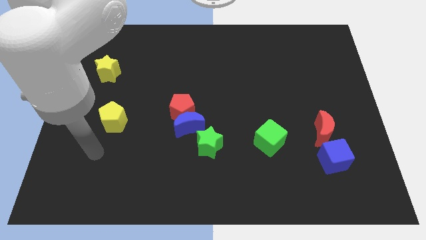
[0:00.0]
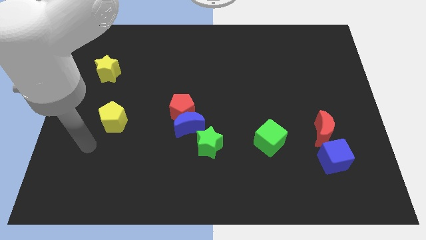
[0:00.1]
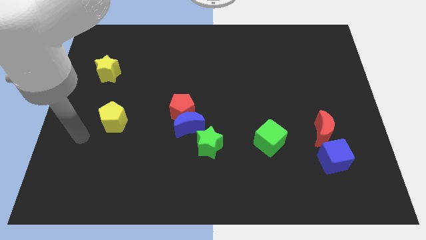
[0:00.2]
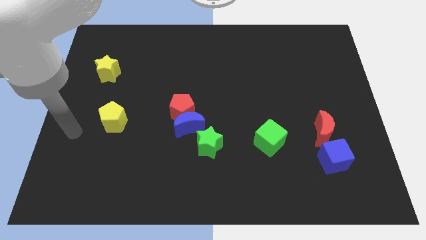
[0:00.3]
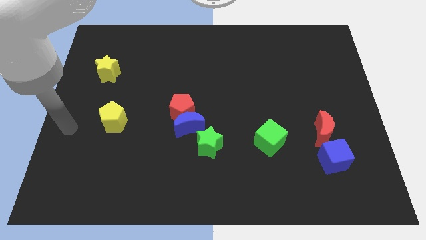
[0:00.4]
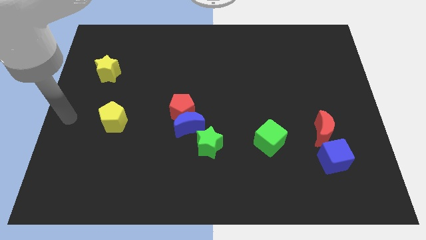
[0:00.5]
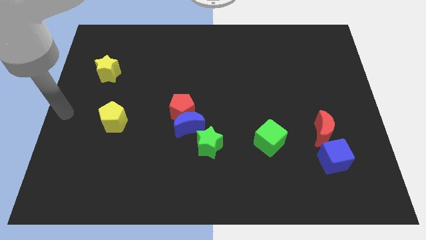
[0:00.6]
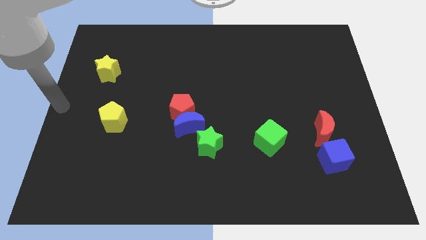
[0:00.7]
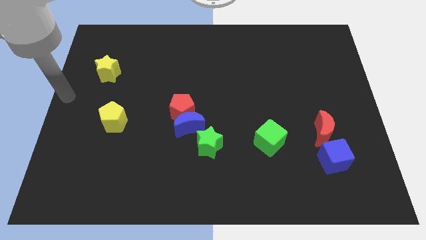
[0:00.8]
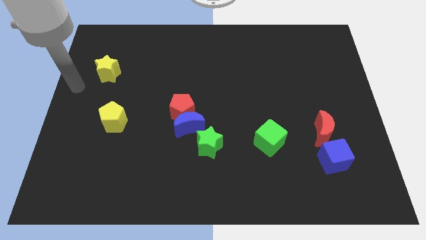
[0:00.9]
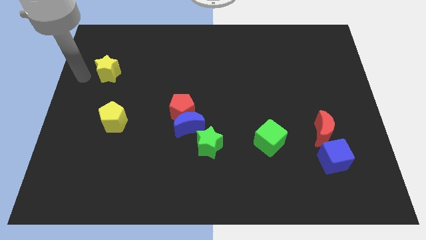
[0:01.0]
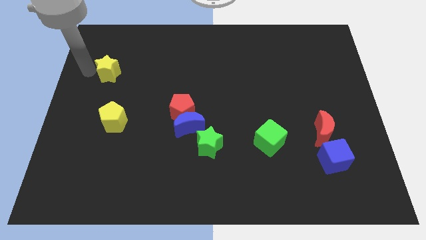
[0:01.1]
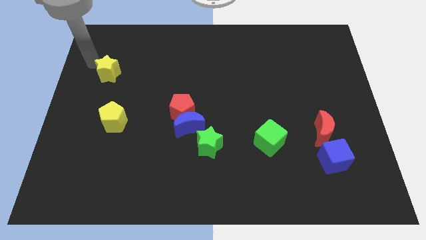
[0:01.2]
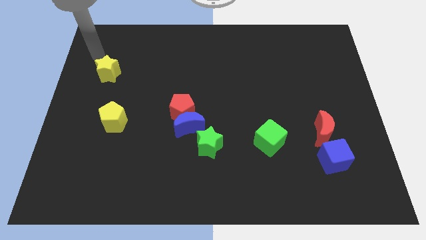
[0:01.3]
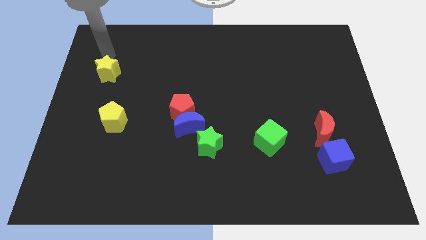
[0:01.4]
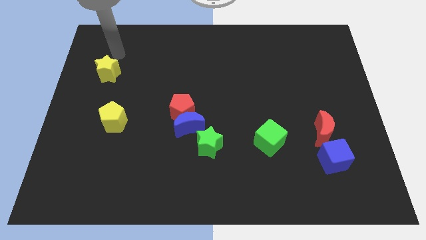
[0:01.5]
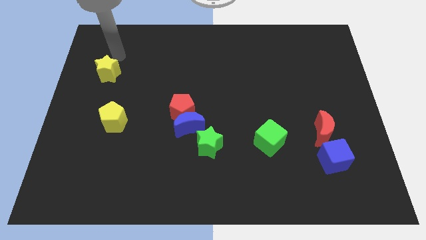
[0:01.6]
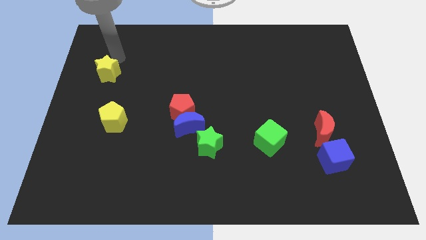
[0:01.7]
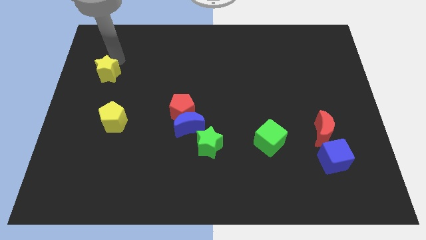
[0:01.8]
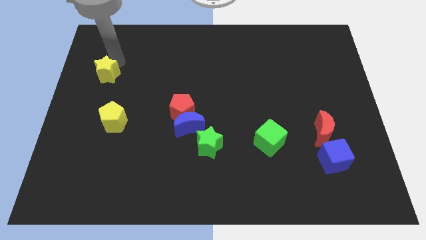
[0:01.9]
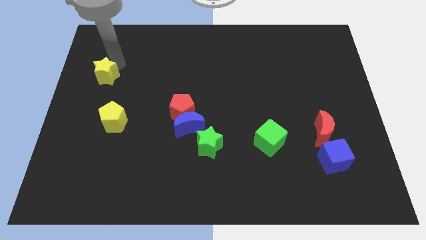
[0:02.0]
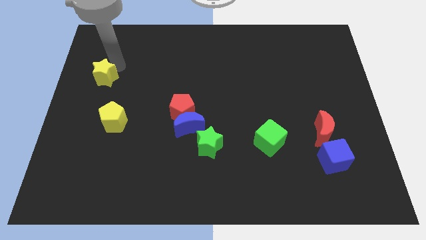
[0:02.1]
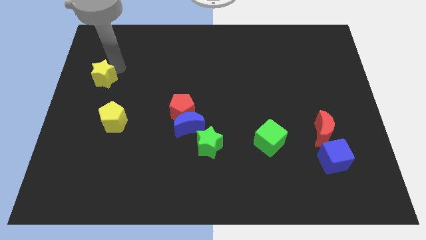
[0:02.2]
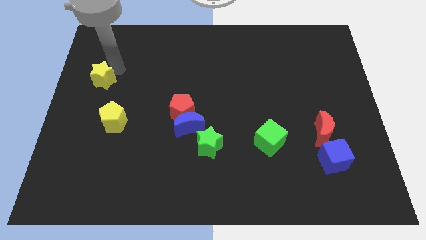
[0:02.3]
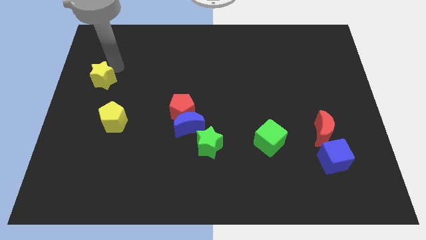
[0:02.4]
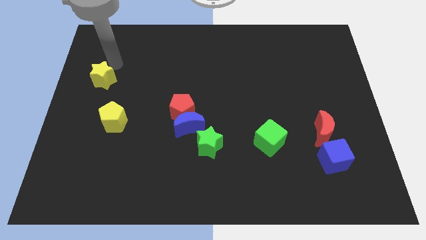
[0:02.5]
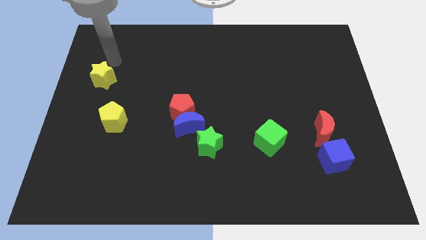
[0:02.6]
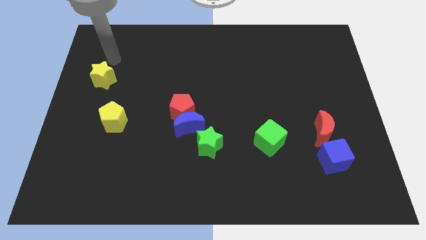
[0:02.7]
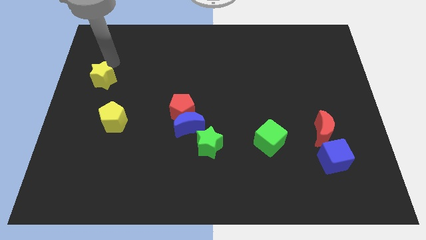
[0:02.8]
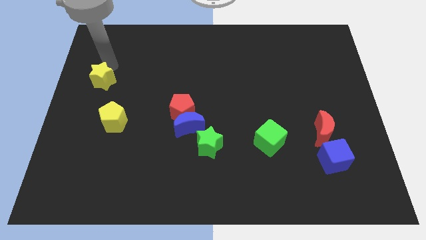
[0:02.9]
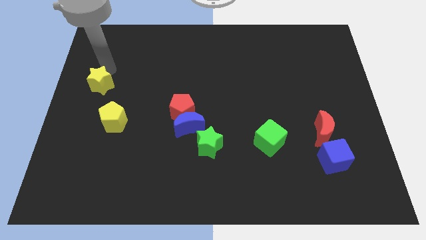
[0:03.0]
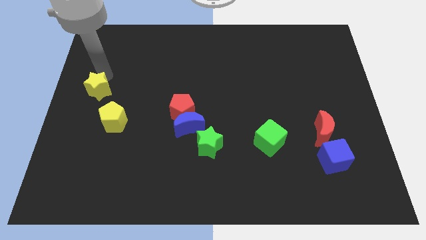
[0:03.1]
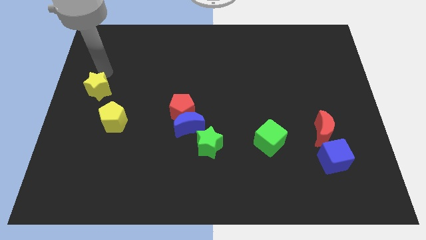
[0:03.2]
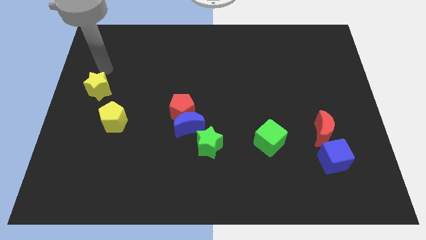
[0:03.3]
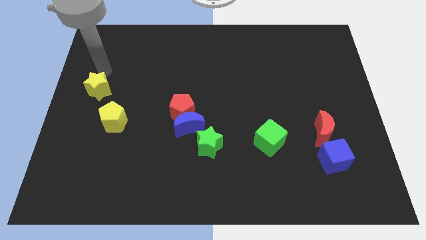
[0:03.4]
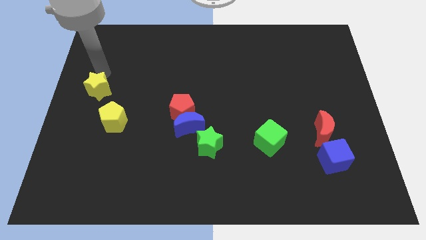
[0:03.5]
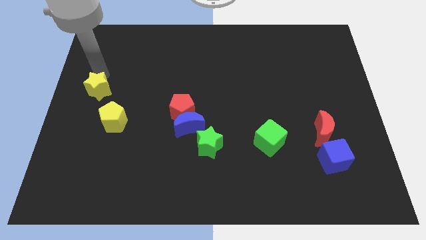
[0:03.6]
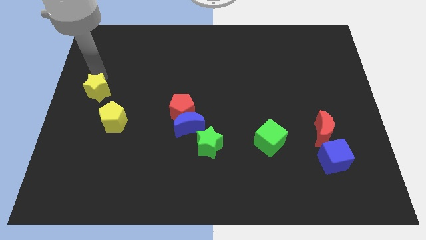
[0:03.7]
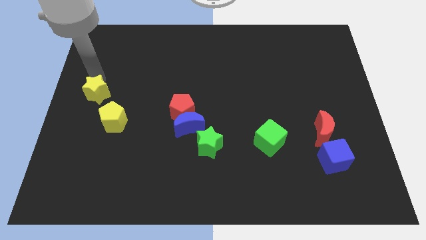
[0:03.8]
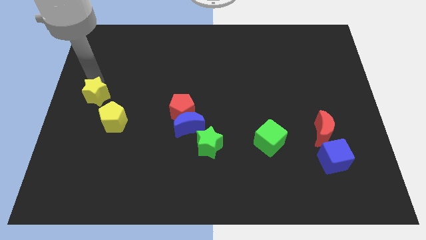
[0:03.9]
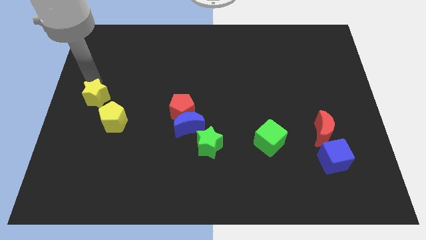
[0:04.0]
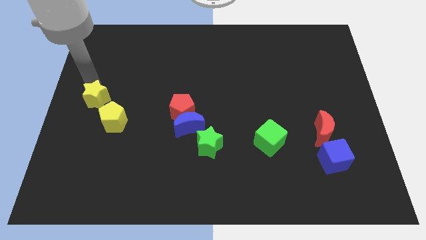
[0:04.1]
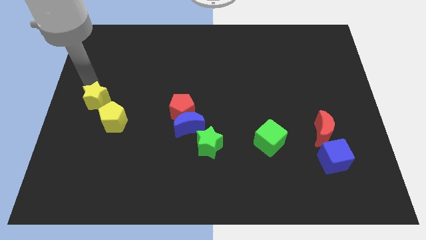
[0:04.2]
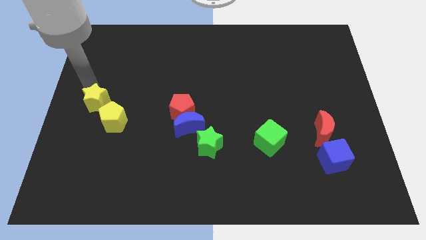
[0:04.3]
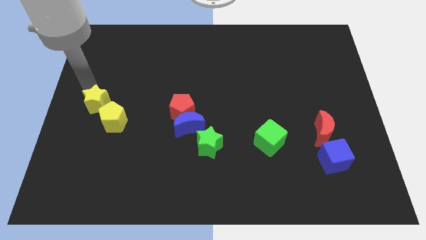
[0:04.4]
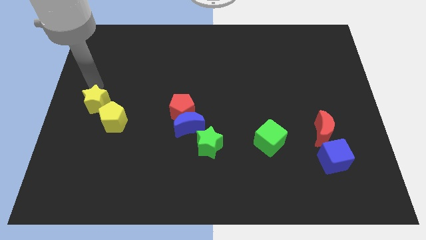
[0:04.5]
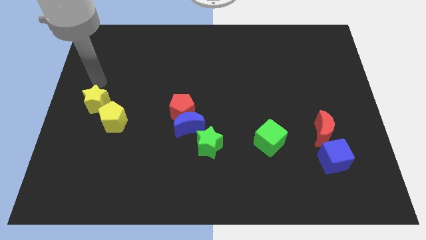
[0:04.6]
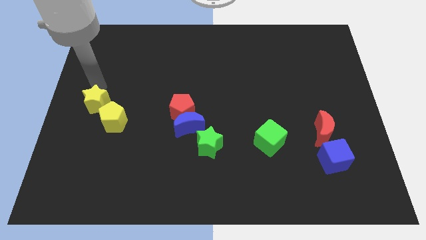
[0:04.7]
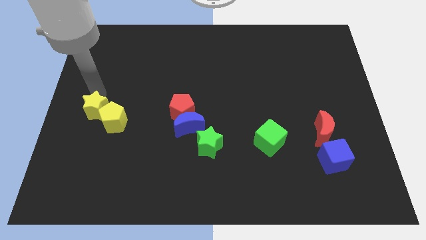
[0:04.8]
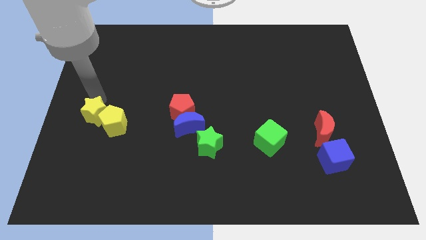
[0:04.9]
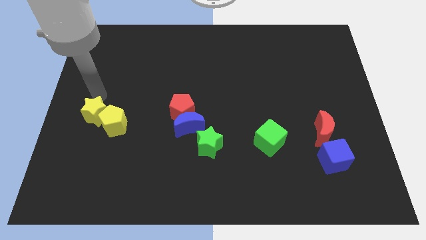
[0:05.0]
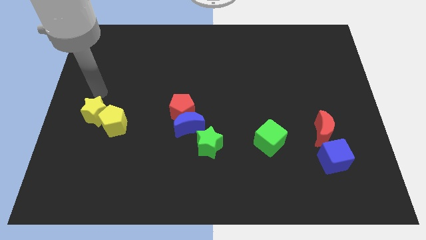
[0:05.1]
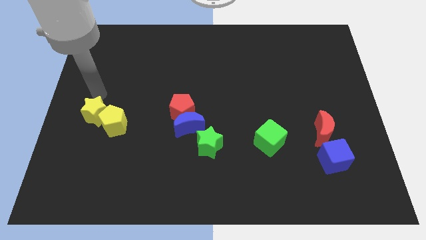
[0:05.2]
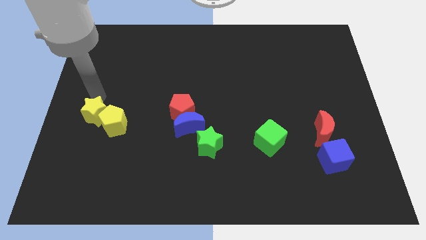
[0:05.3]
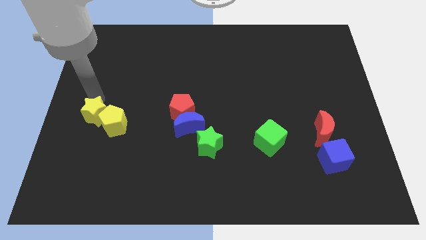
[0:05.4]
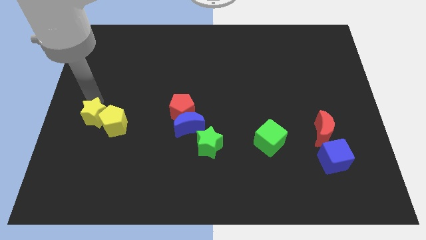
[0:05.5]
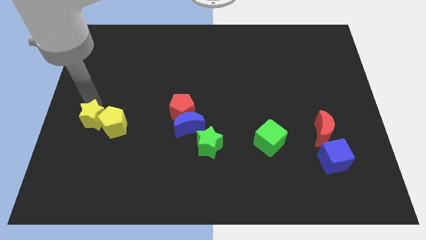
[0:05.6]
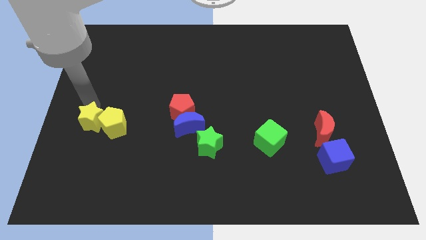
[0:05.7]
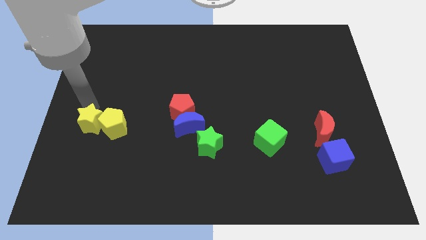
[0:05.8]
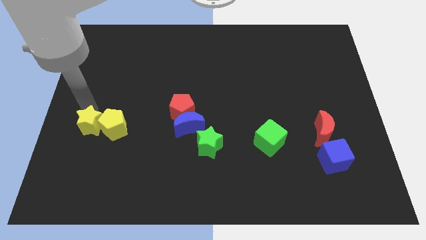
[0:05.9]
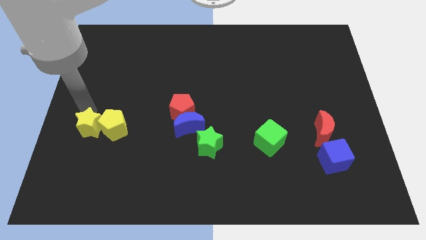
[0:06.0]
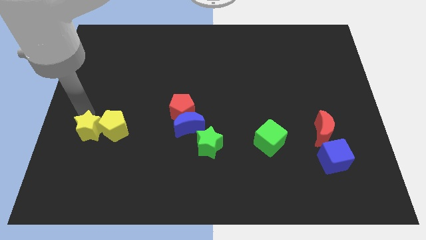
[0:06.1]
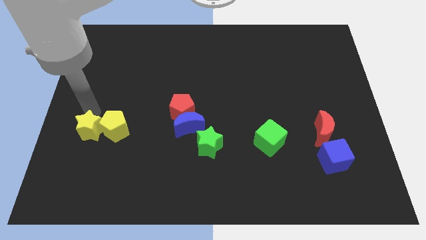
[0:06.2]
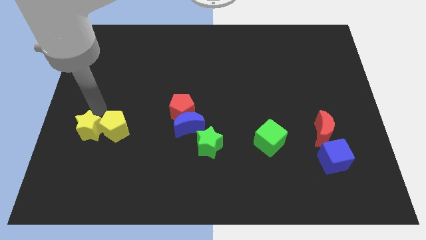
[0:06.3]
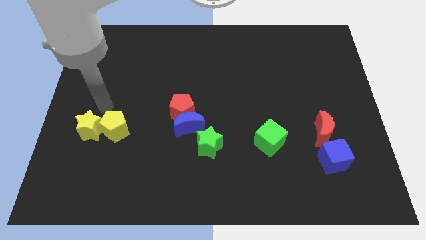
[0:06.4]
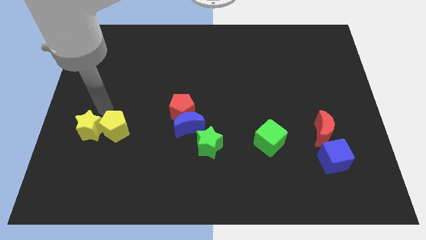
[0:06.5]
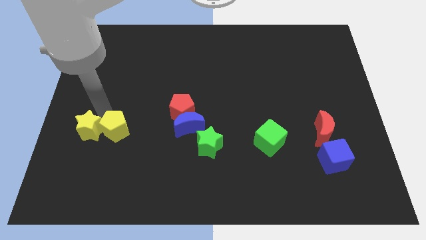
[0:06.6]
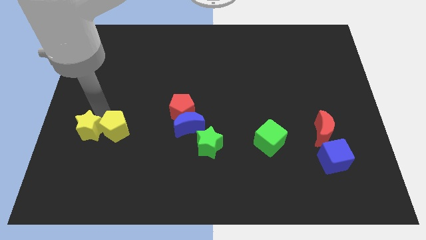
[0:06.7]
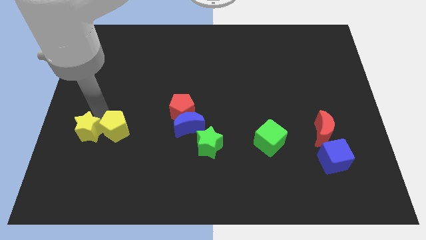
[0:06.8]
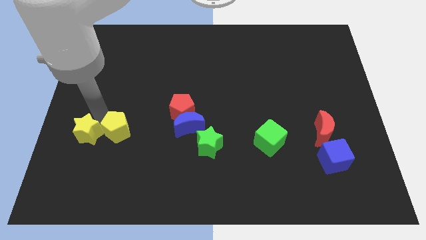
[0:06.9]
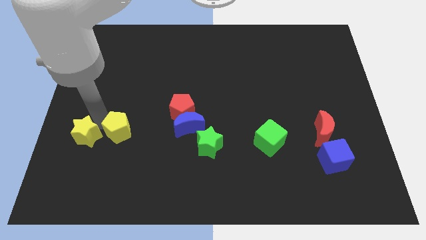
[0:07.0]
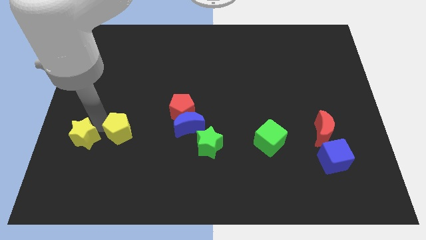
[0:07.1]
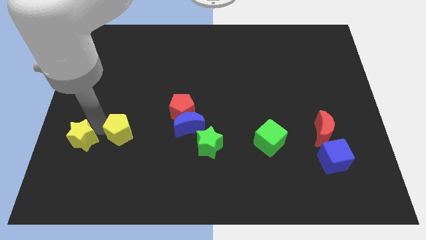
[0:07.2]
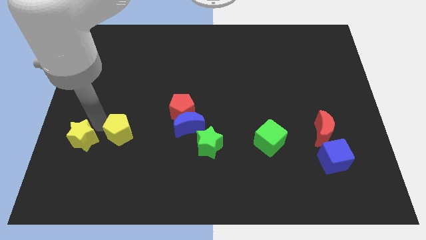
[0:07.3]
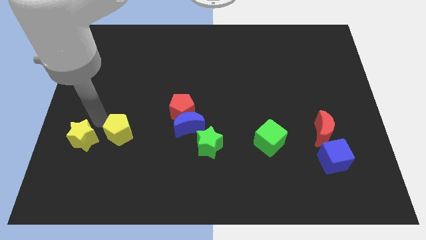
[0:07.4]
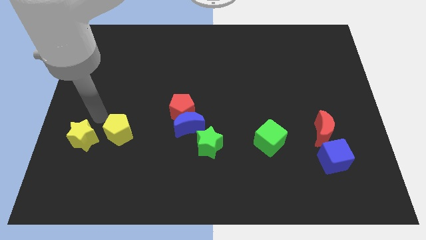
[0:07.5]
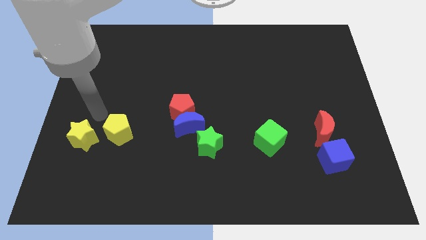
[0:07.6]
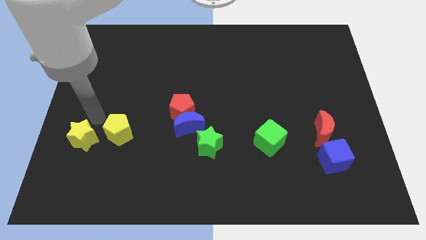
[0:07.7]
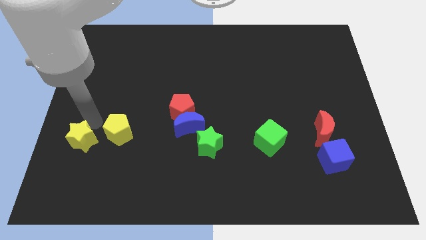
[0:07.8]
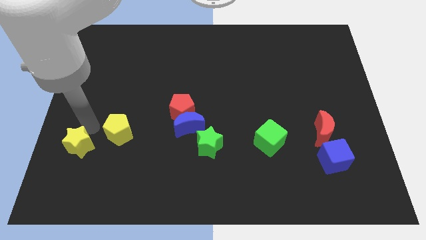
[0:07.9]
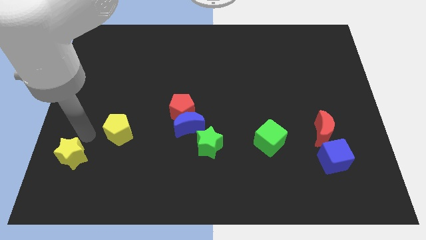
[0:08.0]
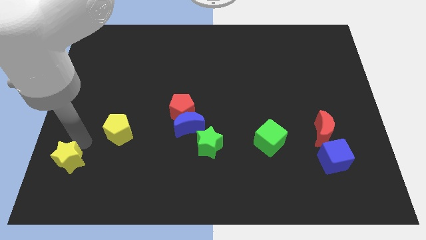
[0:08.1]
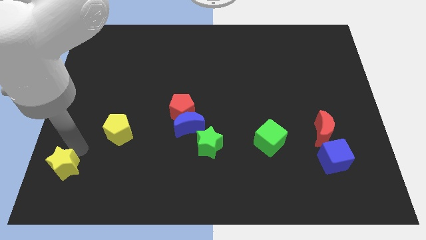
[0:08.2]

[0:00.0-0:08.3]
put the yellow star to the bottom left of the board
